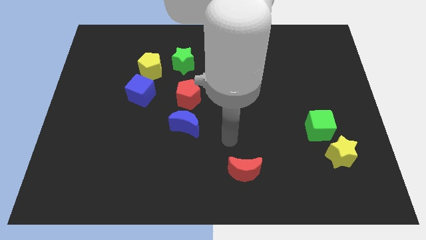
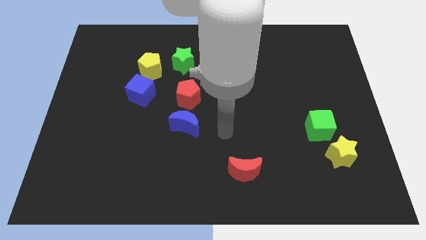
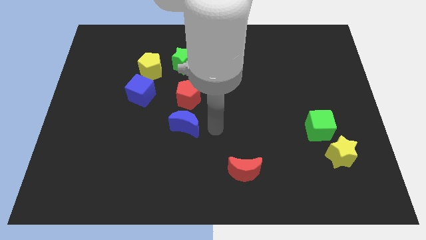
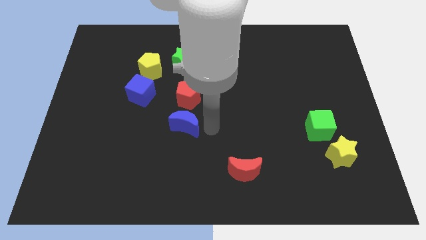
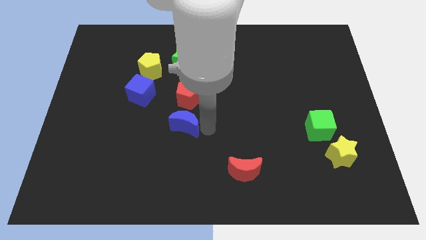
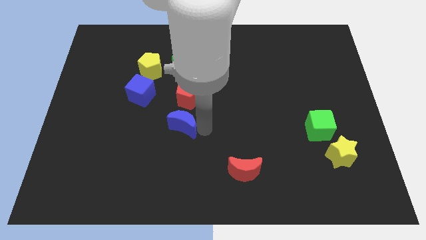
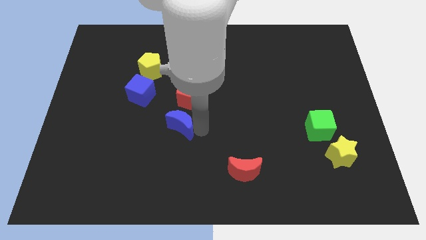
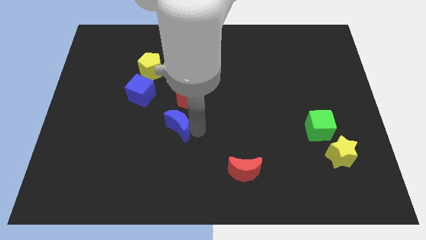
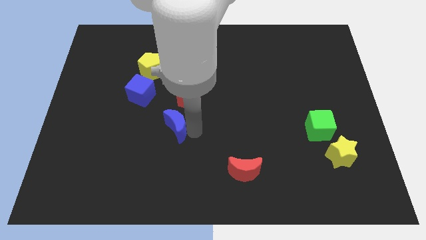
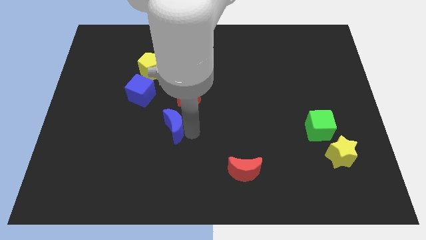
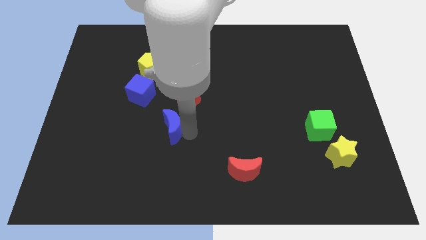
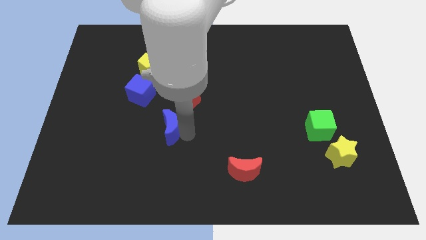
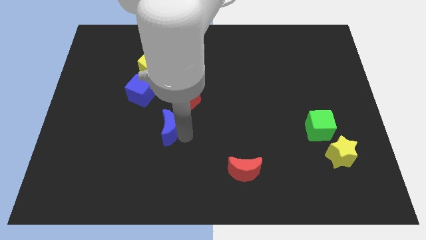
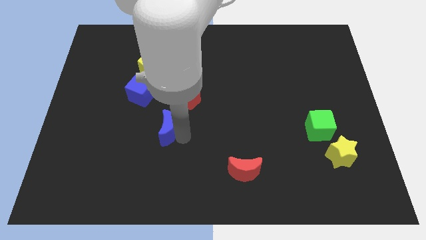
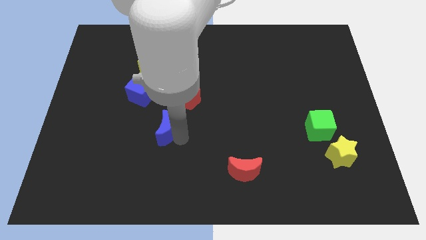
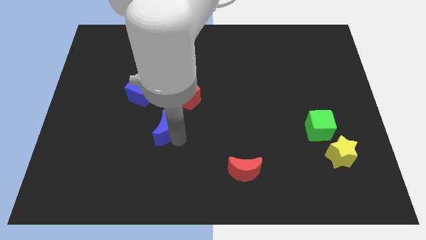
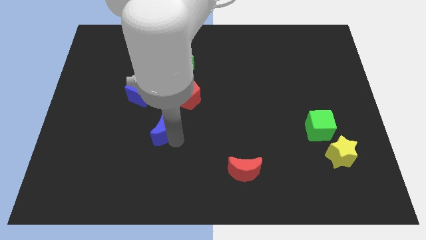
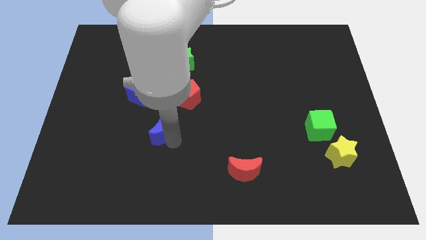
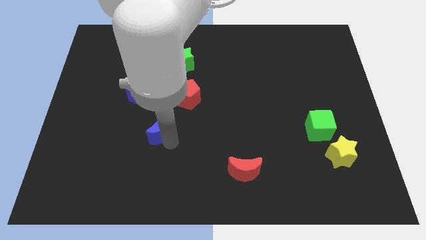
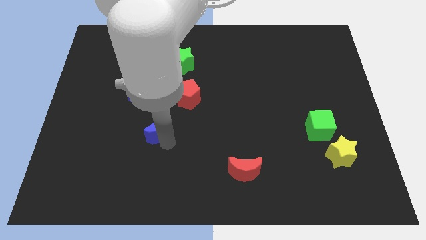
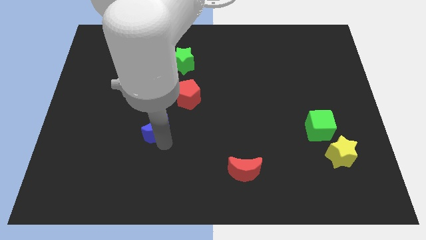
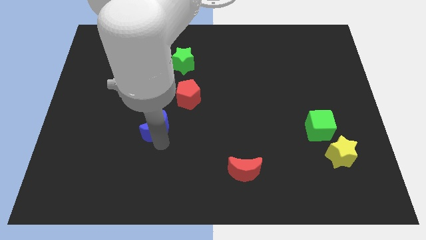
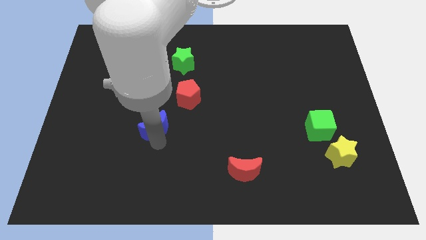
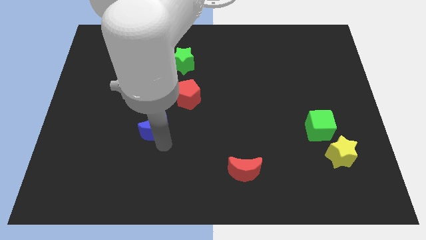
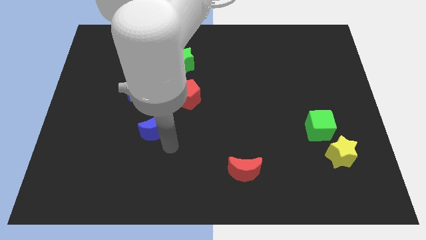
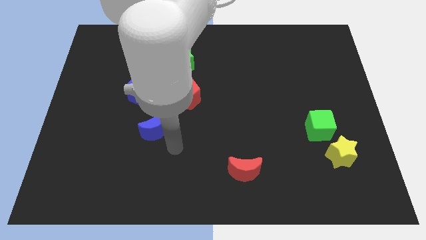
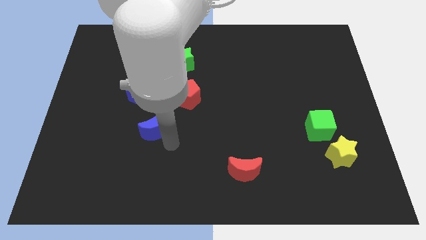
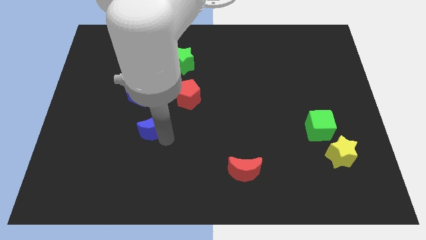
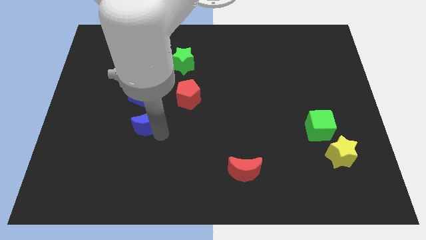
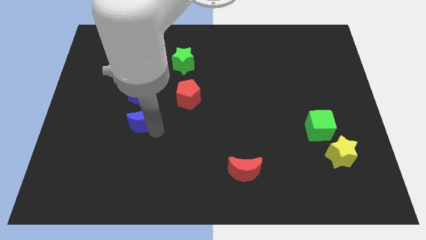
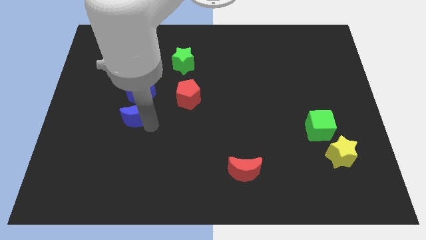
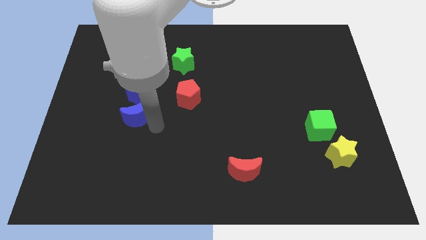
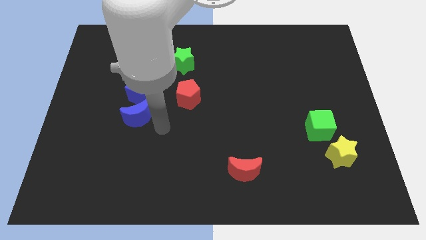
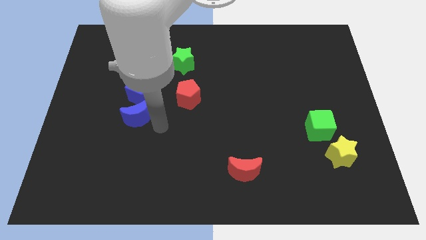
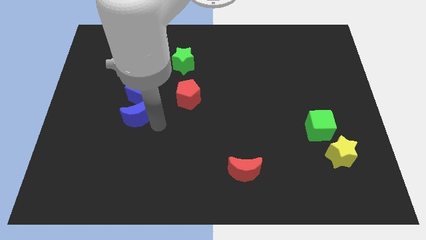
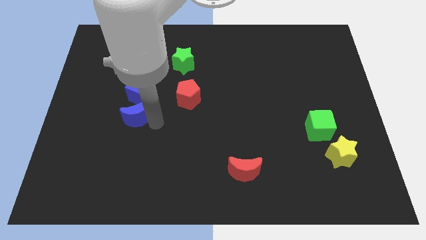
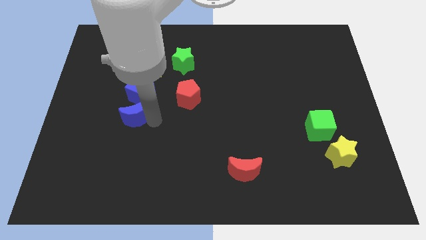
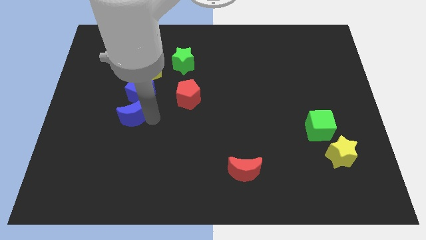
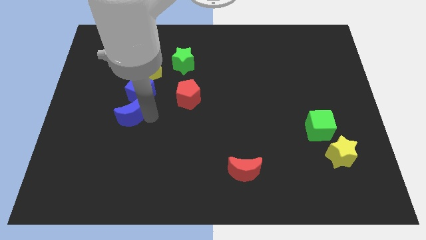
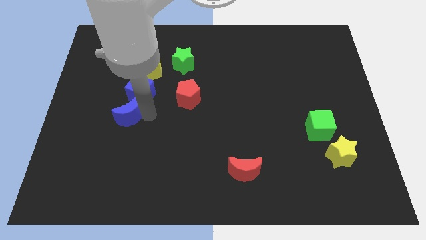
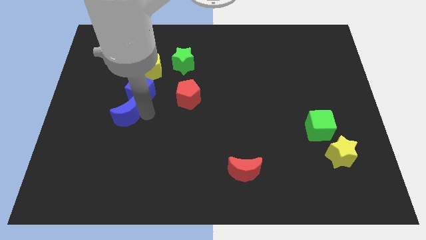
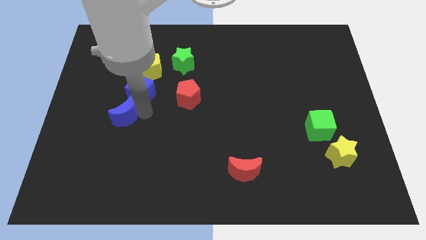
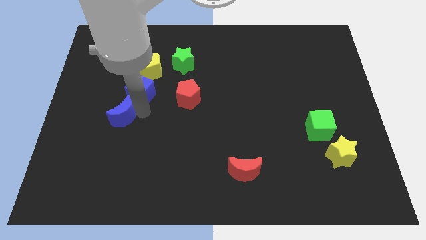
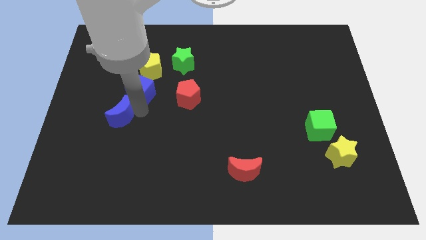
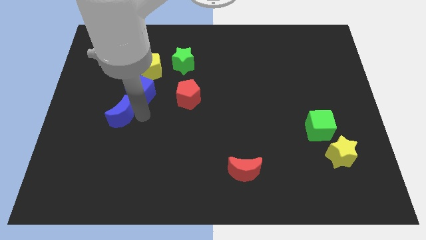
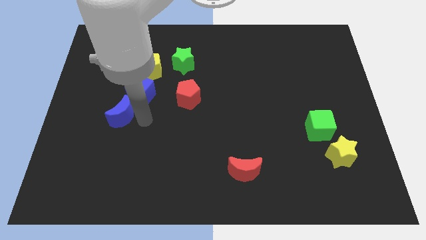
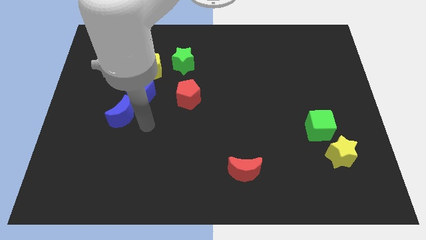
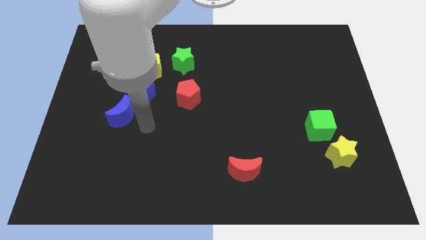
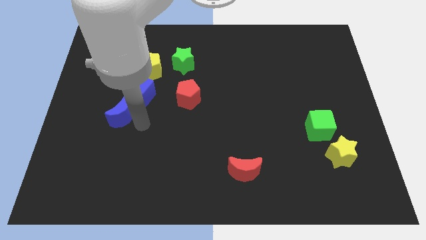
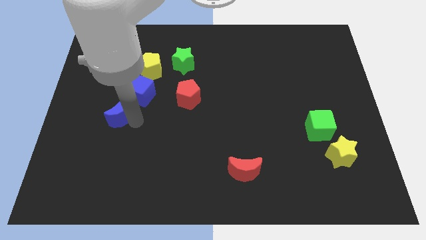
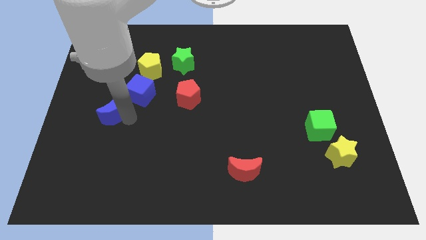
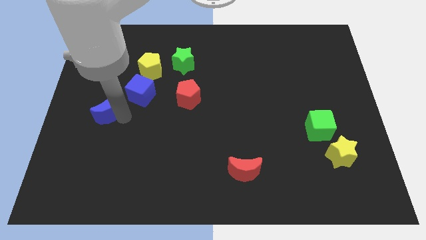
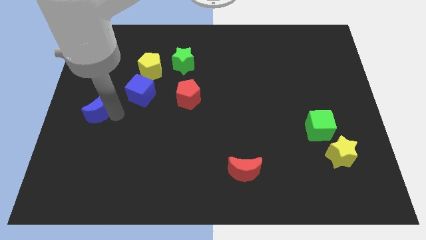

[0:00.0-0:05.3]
move the blue moon to the left side
